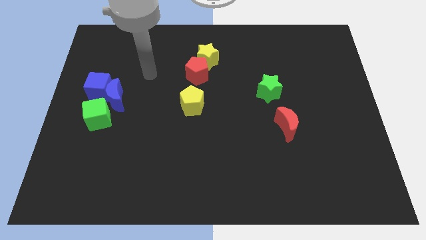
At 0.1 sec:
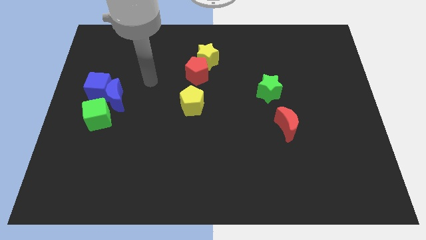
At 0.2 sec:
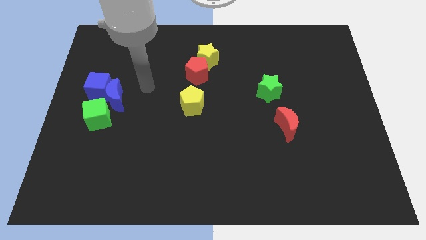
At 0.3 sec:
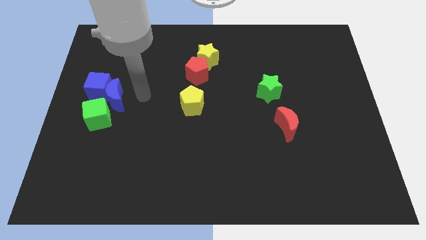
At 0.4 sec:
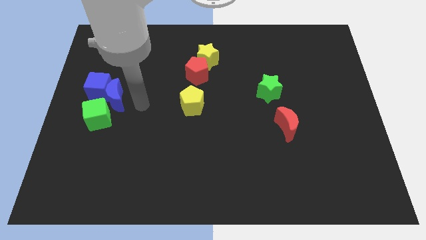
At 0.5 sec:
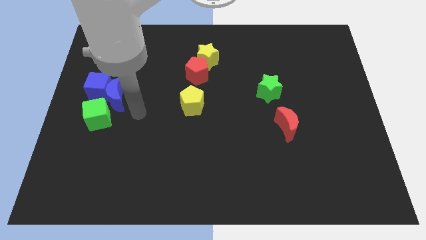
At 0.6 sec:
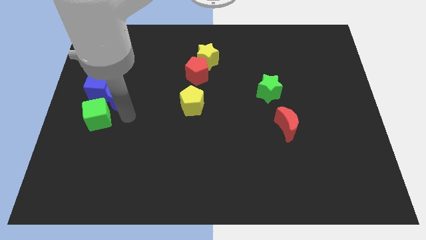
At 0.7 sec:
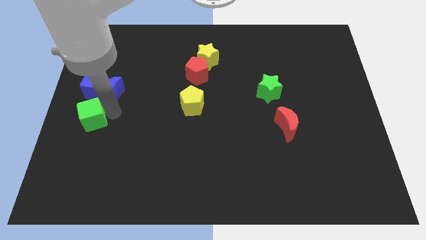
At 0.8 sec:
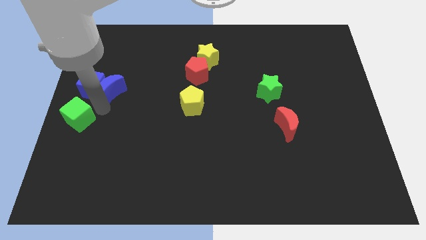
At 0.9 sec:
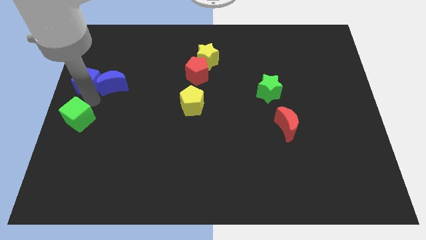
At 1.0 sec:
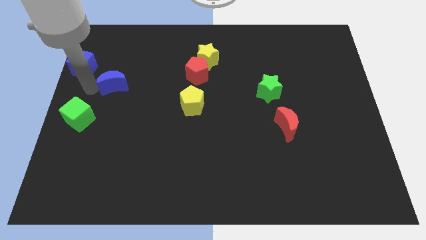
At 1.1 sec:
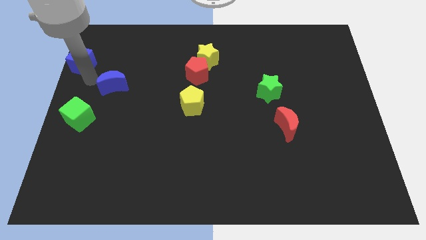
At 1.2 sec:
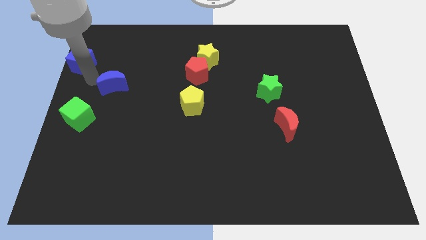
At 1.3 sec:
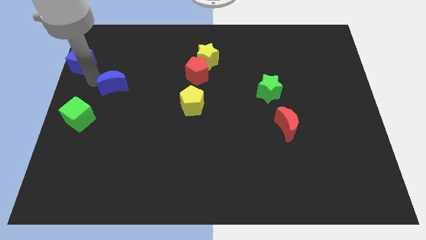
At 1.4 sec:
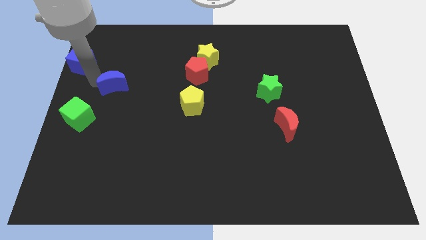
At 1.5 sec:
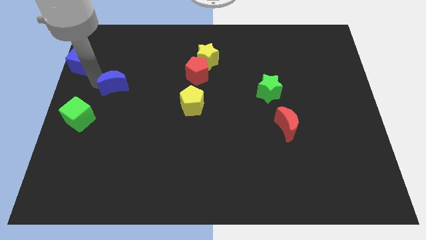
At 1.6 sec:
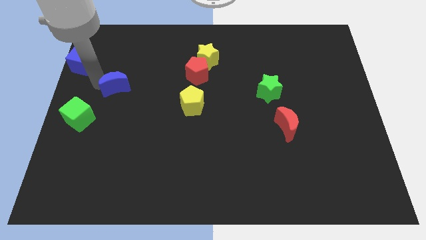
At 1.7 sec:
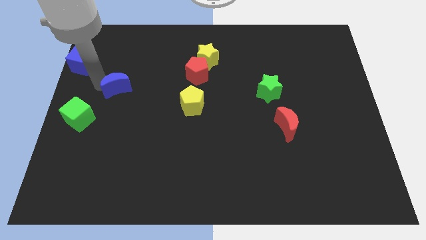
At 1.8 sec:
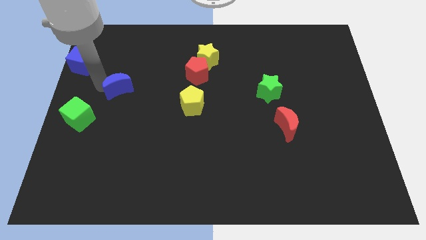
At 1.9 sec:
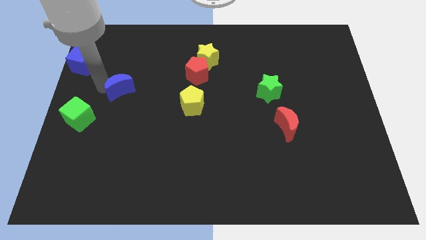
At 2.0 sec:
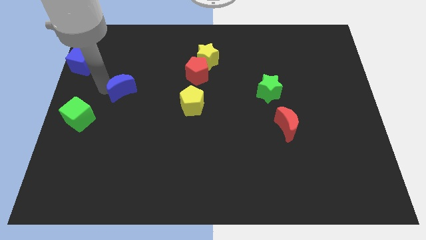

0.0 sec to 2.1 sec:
pull the blue moon apart from the blue cube and green cube

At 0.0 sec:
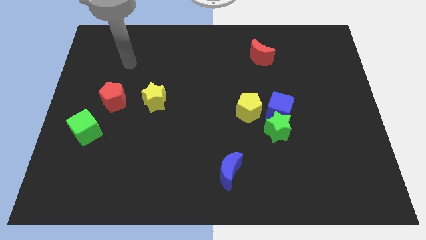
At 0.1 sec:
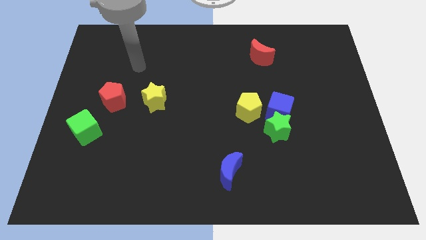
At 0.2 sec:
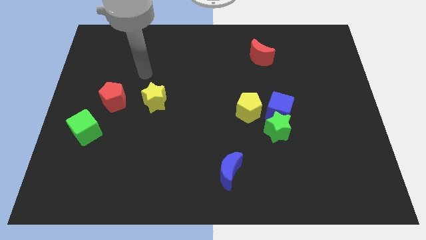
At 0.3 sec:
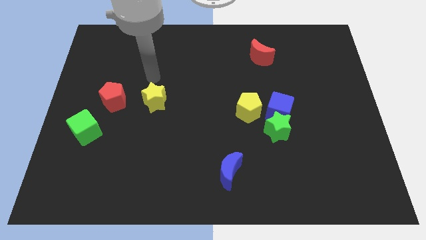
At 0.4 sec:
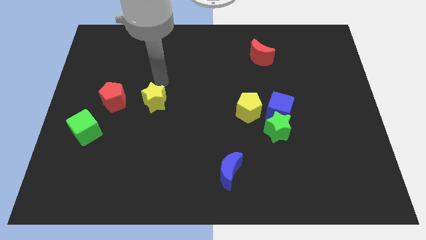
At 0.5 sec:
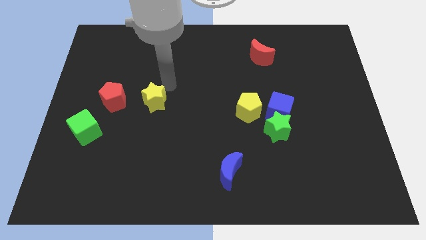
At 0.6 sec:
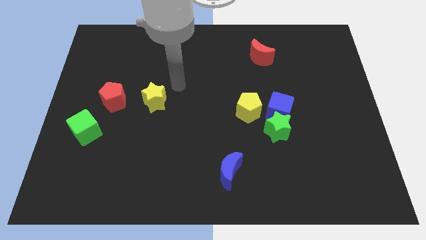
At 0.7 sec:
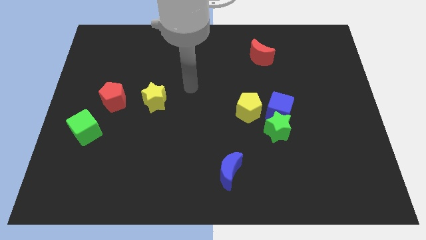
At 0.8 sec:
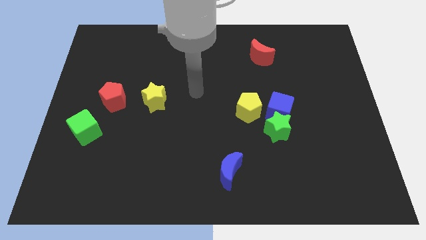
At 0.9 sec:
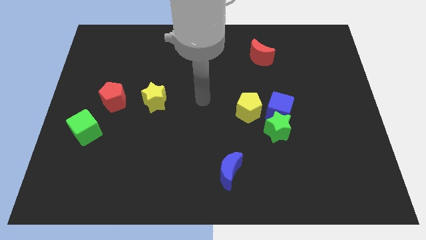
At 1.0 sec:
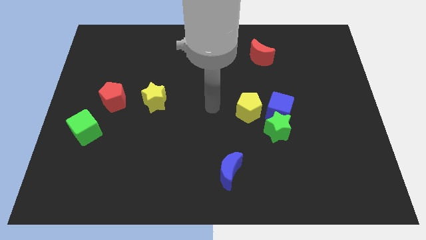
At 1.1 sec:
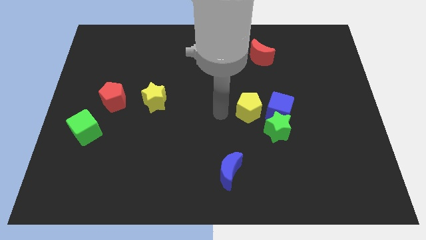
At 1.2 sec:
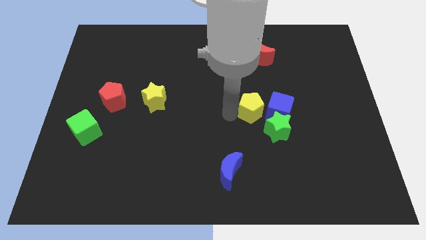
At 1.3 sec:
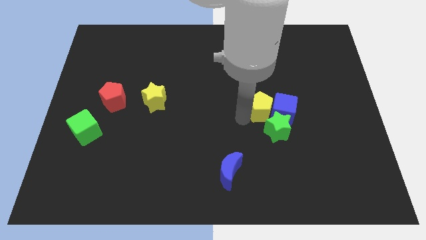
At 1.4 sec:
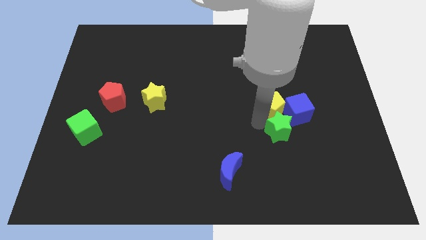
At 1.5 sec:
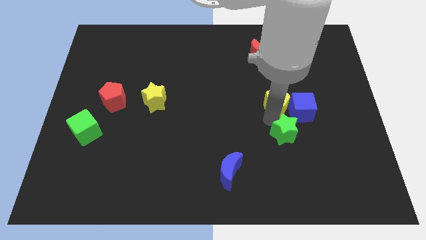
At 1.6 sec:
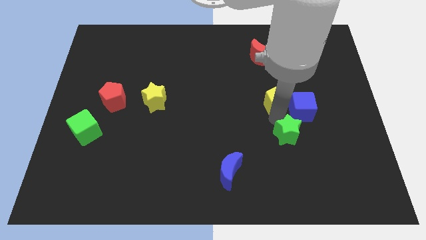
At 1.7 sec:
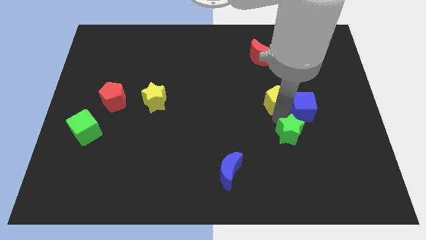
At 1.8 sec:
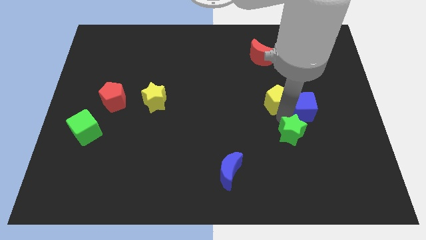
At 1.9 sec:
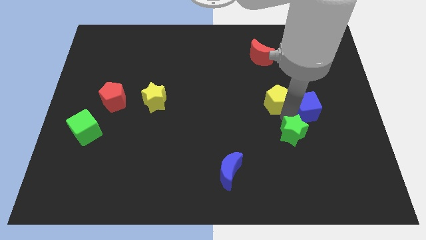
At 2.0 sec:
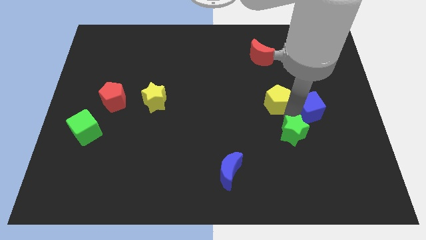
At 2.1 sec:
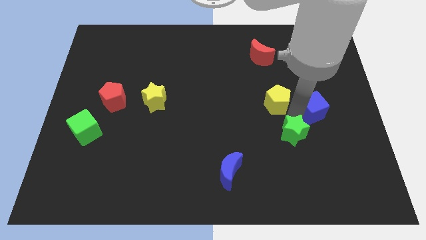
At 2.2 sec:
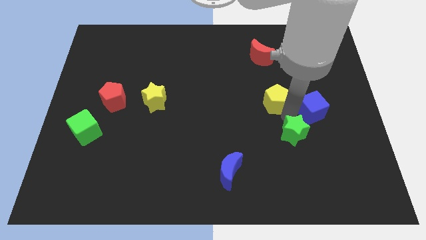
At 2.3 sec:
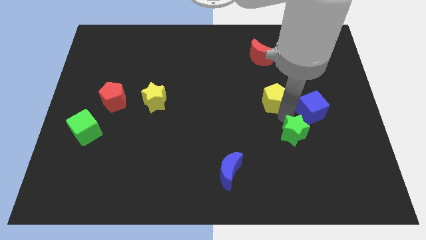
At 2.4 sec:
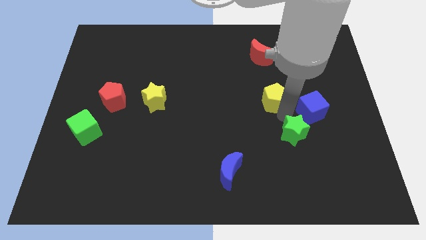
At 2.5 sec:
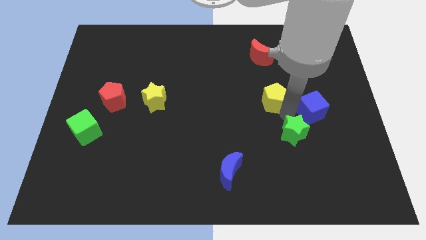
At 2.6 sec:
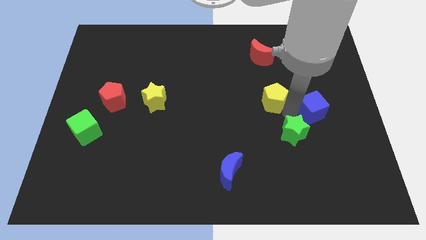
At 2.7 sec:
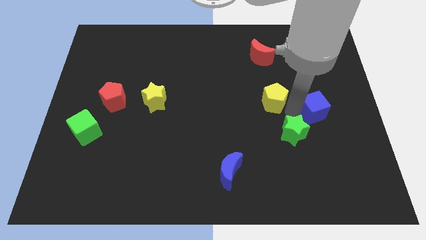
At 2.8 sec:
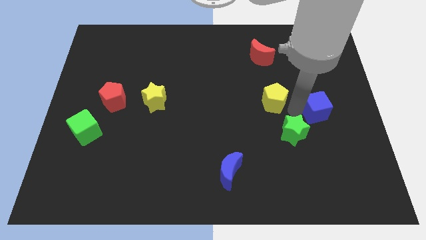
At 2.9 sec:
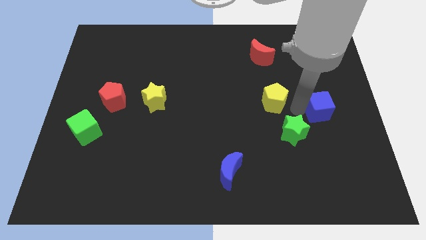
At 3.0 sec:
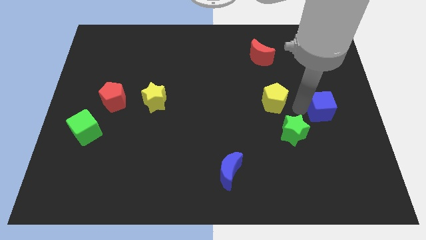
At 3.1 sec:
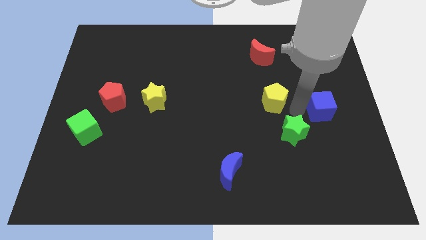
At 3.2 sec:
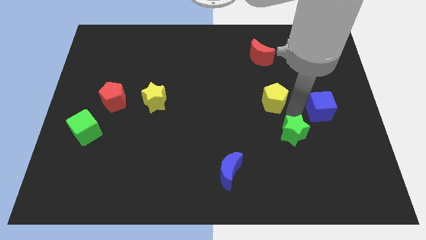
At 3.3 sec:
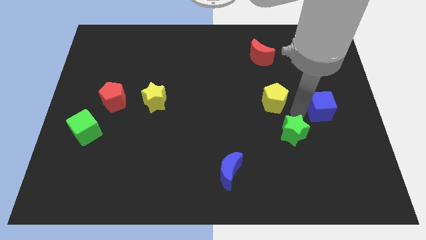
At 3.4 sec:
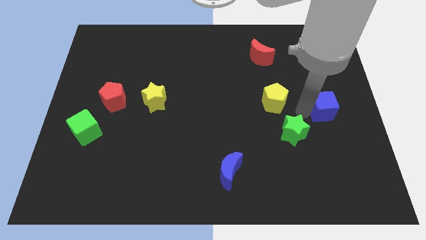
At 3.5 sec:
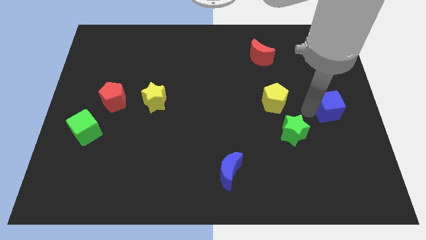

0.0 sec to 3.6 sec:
pull the blue cube apart from the green star and yellow pentagon

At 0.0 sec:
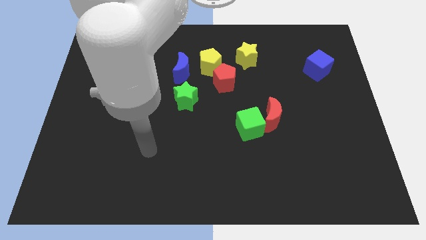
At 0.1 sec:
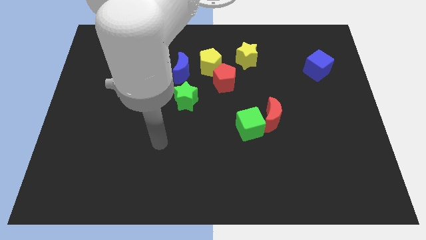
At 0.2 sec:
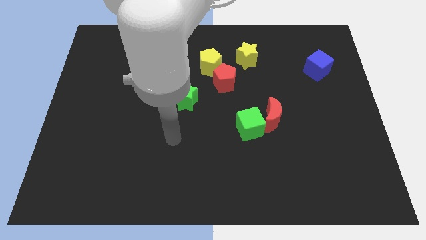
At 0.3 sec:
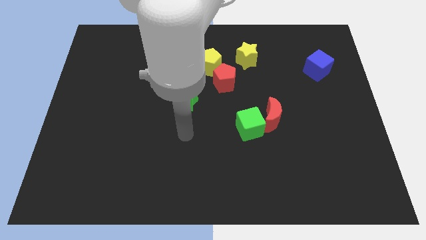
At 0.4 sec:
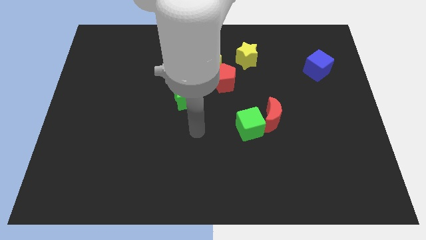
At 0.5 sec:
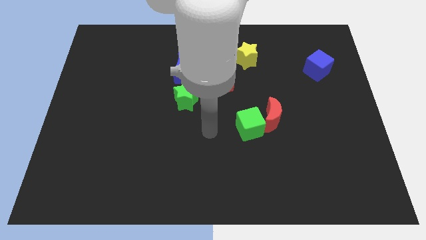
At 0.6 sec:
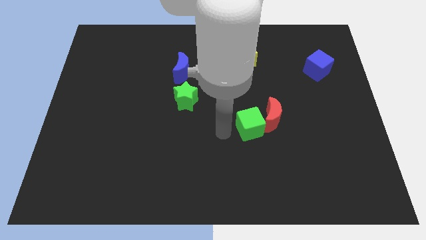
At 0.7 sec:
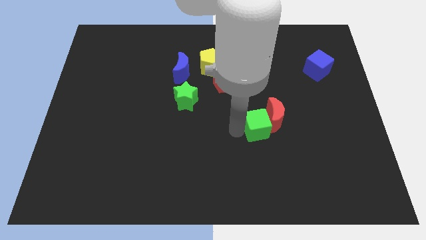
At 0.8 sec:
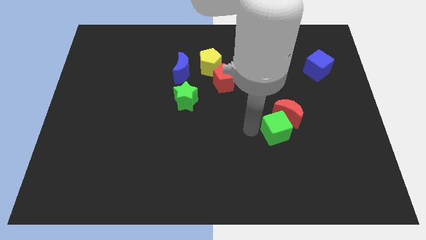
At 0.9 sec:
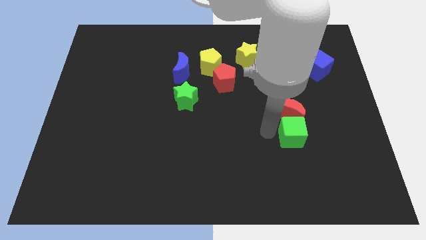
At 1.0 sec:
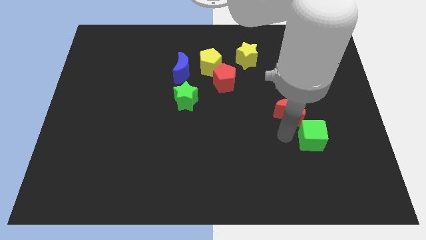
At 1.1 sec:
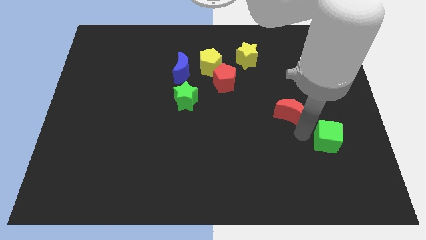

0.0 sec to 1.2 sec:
pull the red moon apart from the green cube

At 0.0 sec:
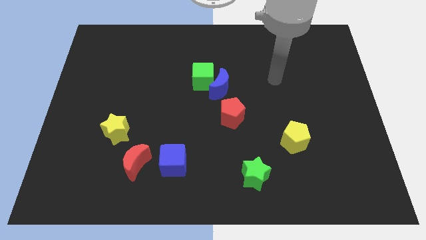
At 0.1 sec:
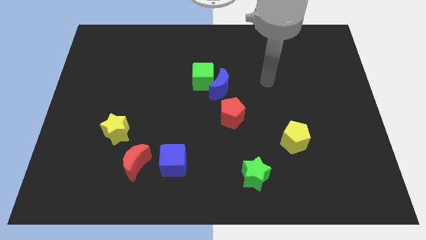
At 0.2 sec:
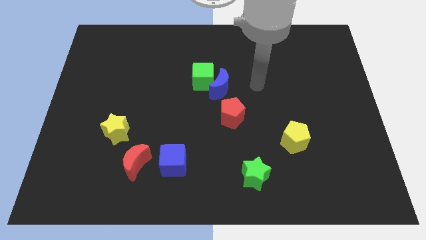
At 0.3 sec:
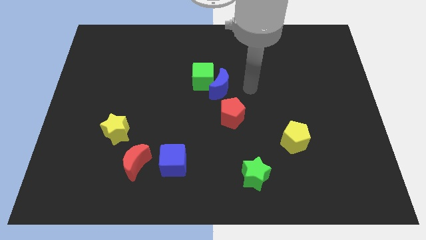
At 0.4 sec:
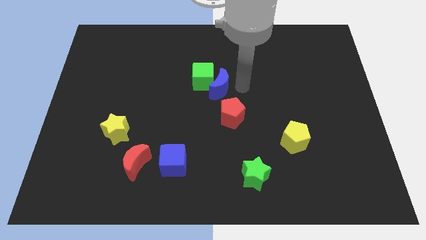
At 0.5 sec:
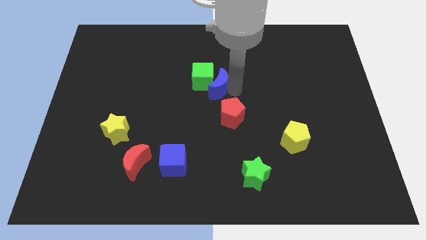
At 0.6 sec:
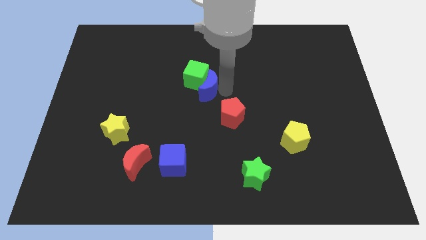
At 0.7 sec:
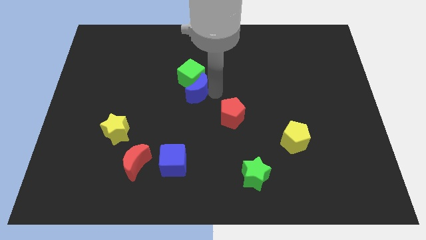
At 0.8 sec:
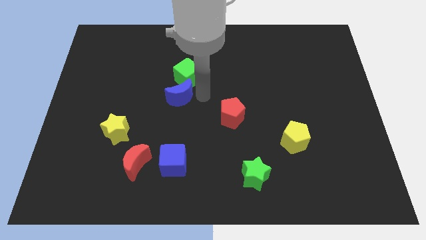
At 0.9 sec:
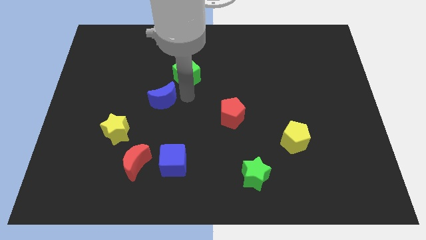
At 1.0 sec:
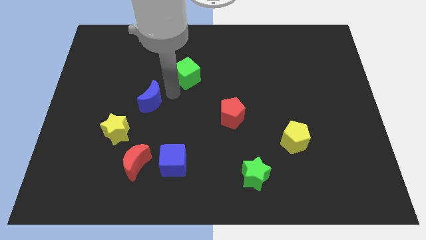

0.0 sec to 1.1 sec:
pull the green cube apart from the blue moon

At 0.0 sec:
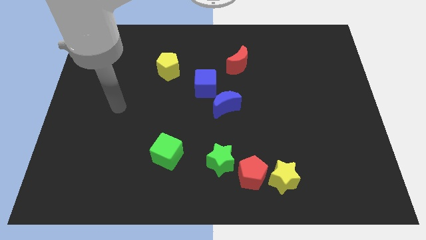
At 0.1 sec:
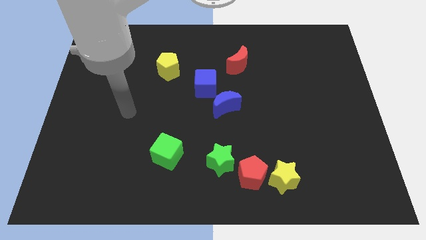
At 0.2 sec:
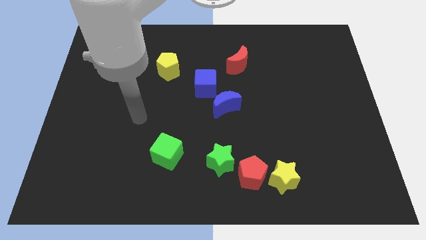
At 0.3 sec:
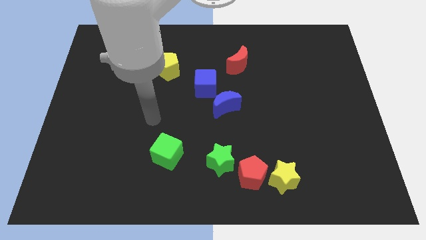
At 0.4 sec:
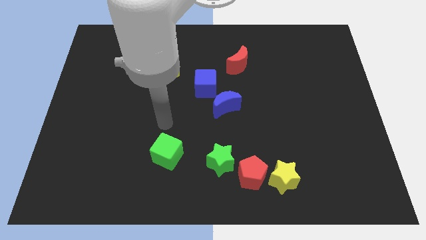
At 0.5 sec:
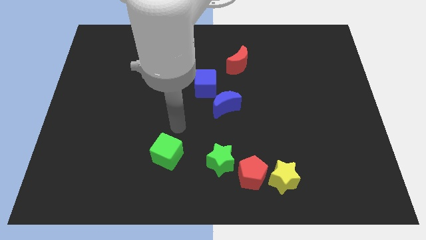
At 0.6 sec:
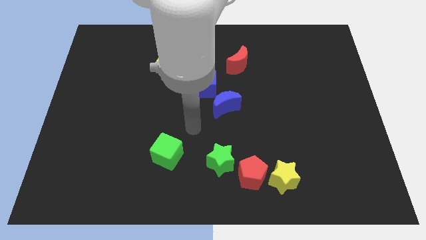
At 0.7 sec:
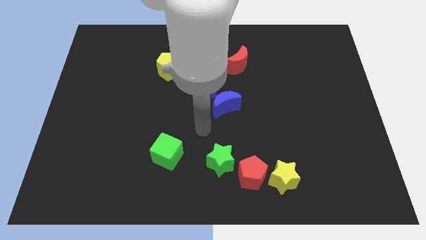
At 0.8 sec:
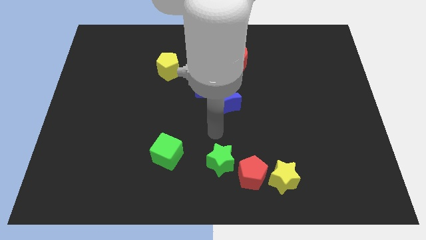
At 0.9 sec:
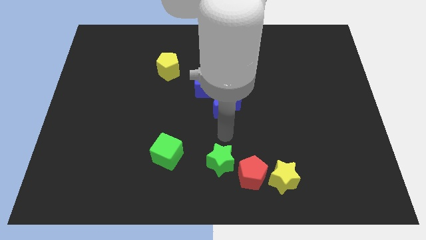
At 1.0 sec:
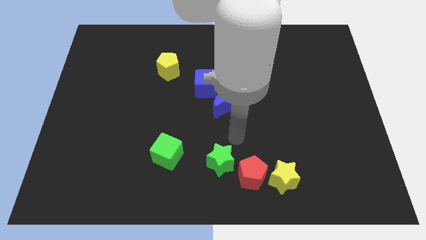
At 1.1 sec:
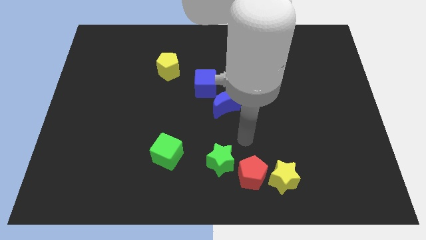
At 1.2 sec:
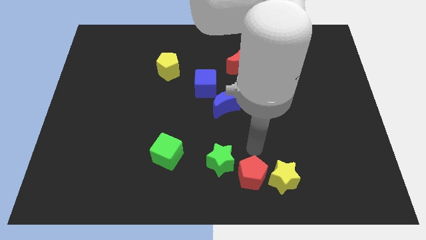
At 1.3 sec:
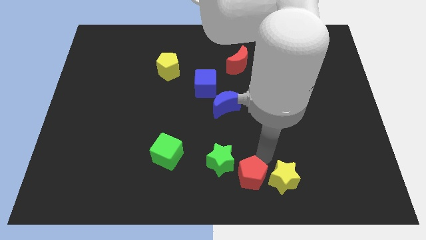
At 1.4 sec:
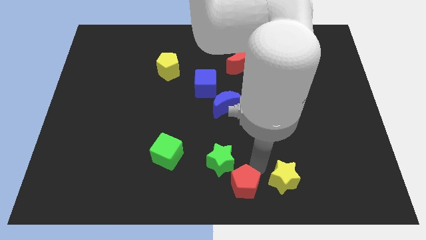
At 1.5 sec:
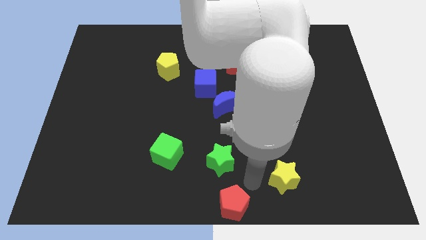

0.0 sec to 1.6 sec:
pull the yellow star apart from the red pentagon
